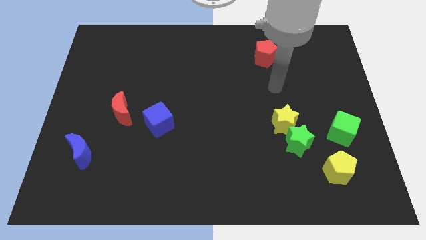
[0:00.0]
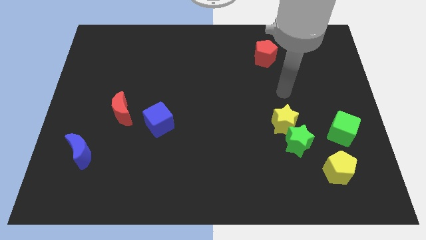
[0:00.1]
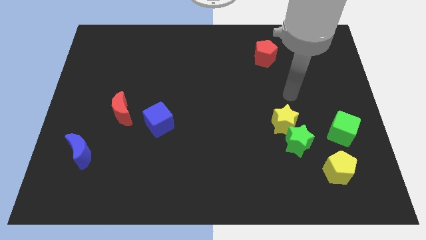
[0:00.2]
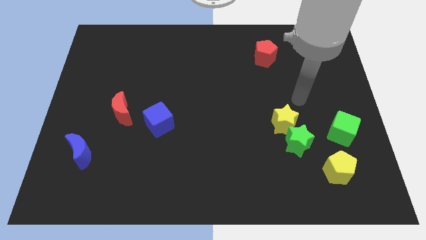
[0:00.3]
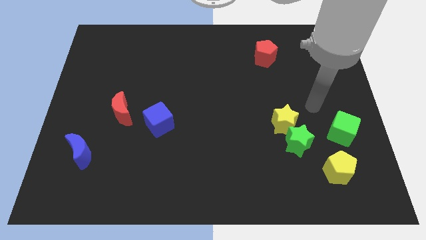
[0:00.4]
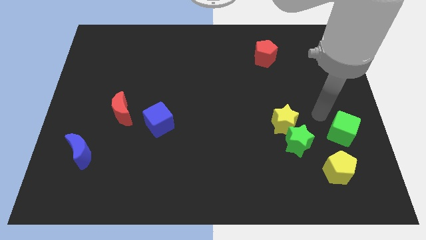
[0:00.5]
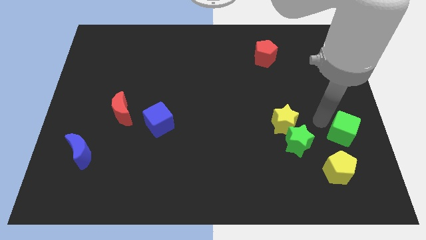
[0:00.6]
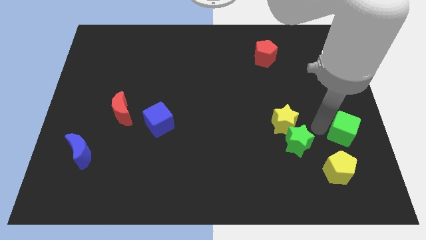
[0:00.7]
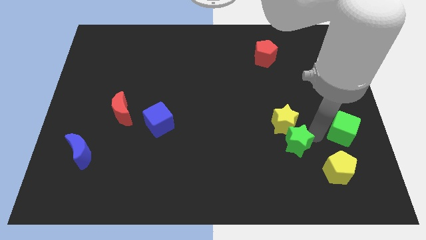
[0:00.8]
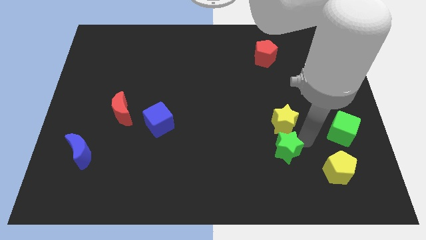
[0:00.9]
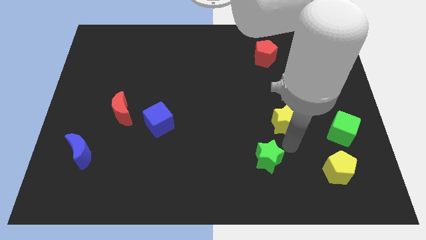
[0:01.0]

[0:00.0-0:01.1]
pull the yellow star apart from the green star

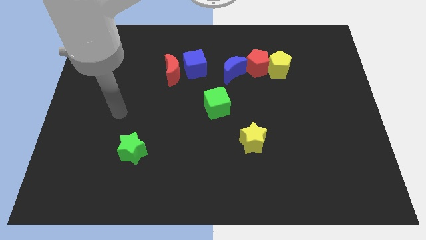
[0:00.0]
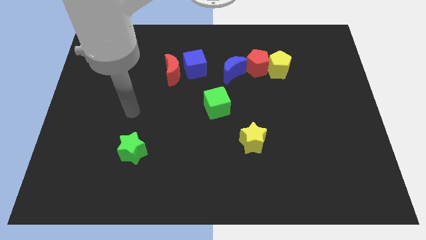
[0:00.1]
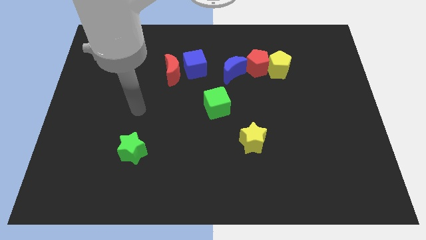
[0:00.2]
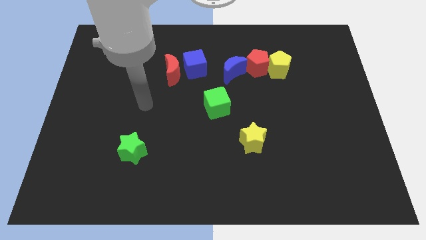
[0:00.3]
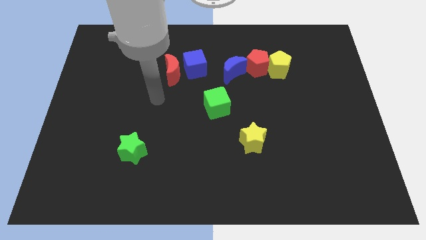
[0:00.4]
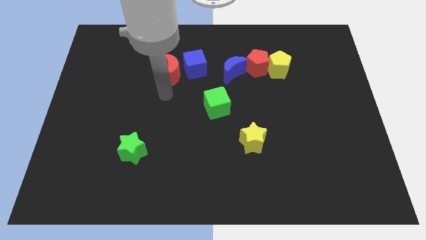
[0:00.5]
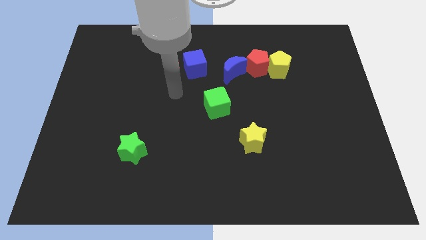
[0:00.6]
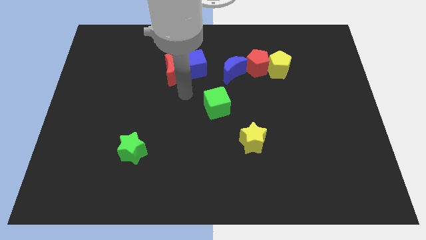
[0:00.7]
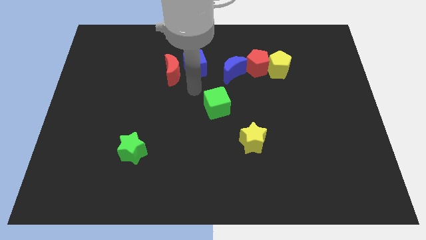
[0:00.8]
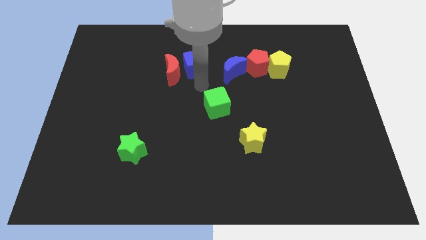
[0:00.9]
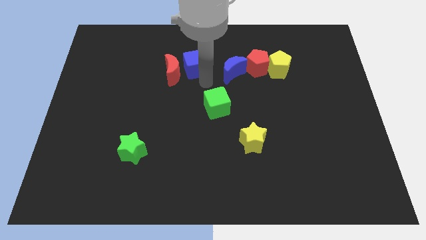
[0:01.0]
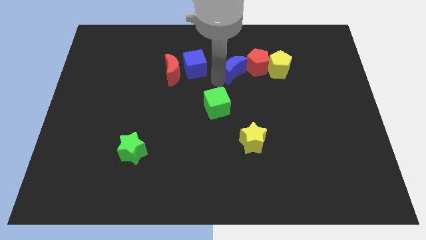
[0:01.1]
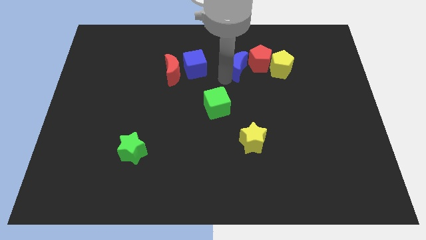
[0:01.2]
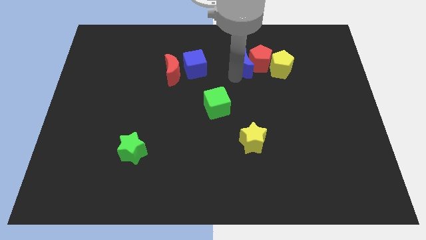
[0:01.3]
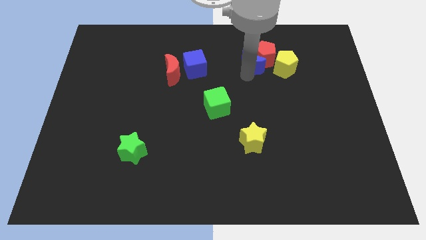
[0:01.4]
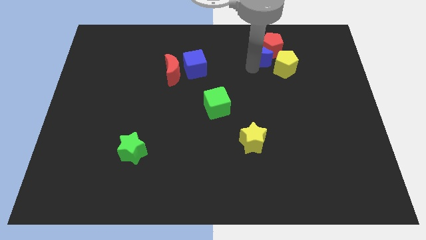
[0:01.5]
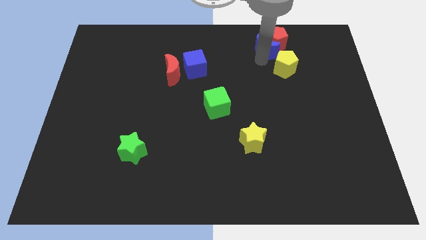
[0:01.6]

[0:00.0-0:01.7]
move the yellow pentagon away from the red pentagon

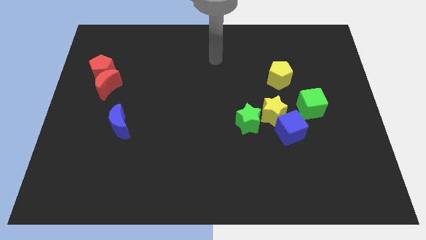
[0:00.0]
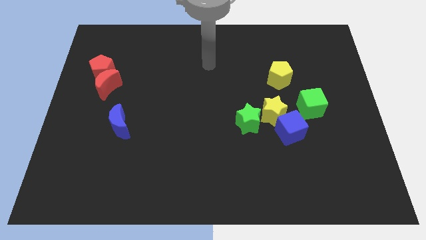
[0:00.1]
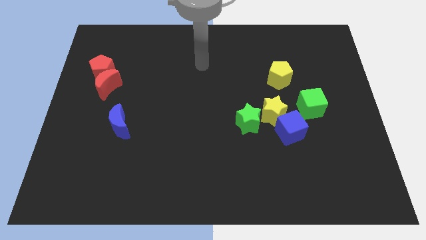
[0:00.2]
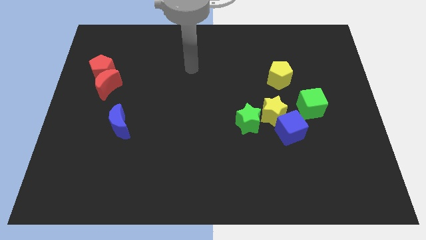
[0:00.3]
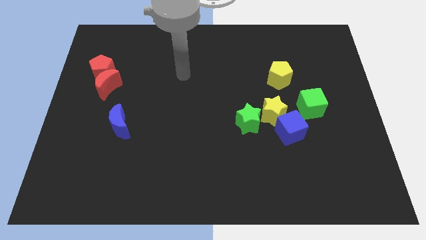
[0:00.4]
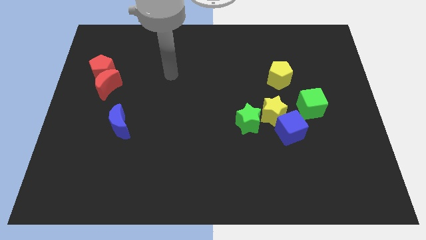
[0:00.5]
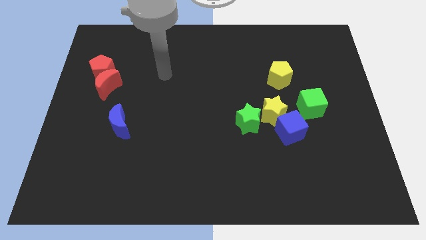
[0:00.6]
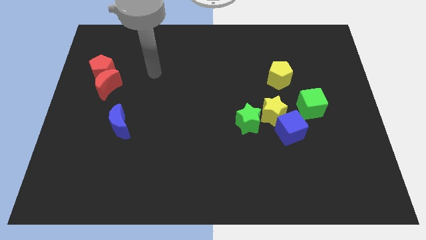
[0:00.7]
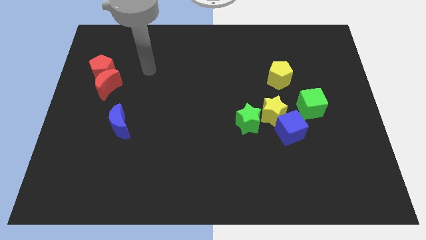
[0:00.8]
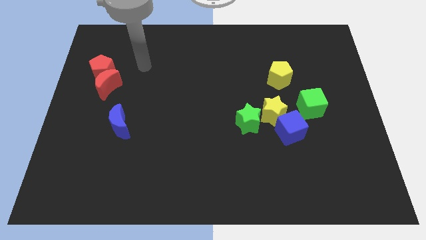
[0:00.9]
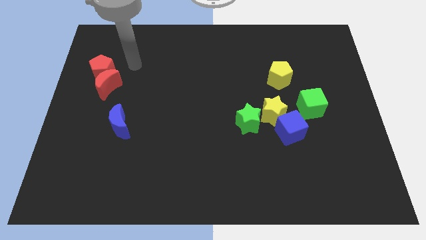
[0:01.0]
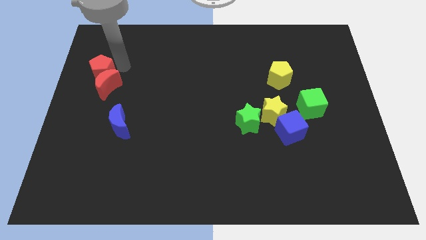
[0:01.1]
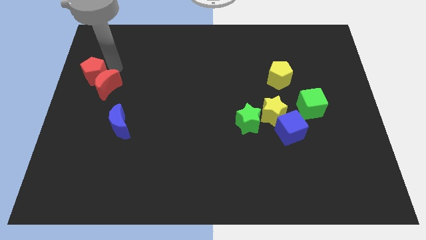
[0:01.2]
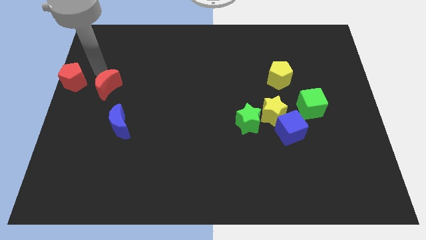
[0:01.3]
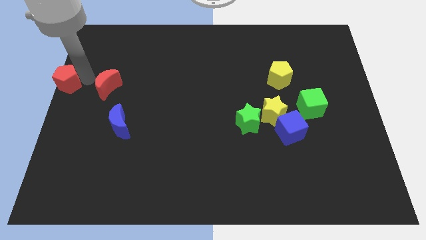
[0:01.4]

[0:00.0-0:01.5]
move the red moon away from the red pentagon

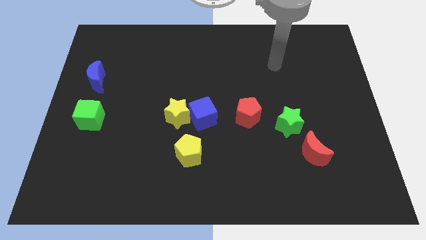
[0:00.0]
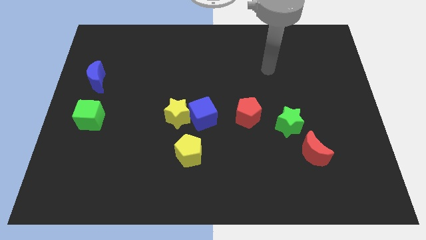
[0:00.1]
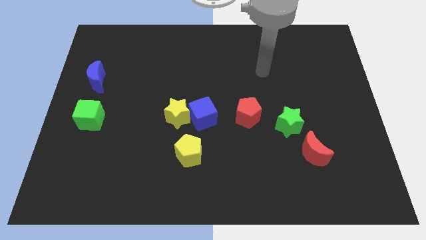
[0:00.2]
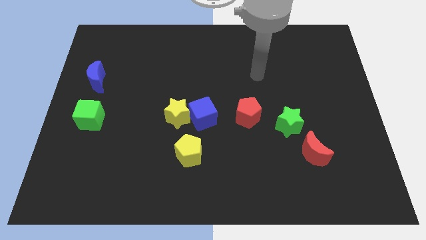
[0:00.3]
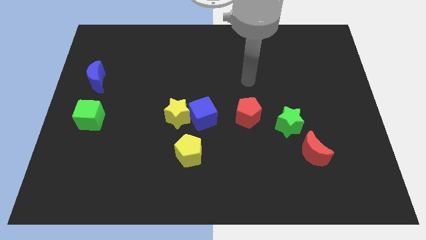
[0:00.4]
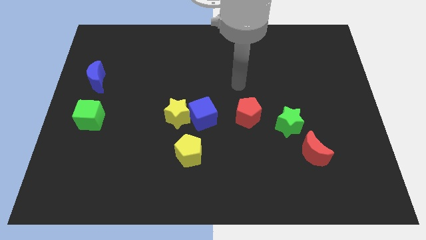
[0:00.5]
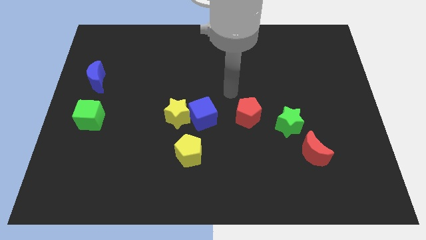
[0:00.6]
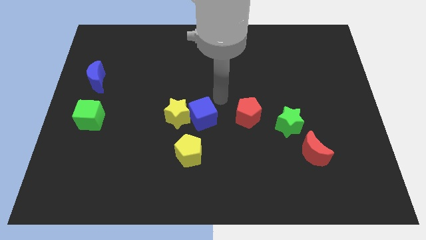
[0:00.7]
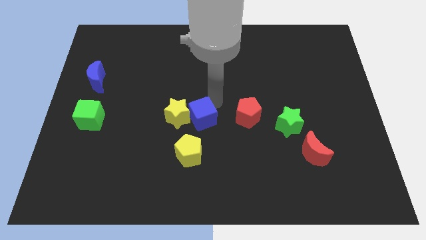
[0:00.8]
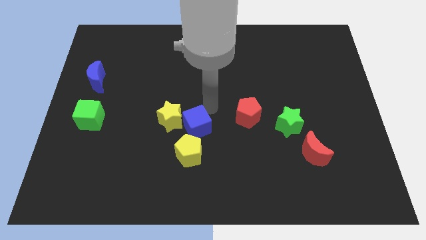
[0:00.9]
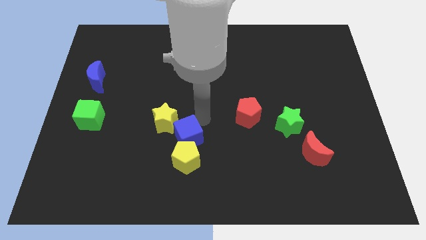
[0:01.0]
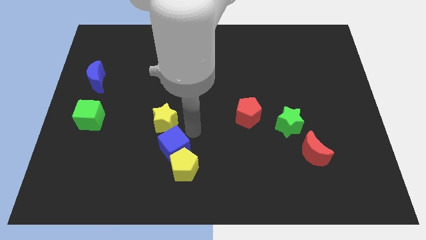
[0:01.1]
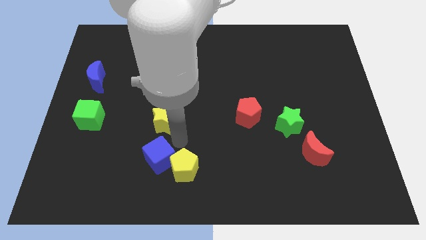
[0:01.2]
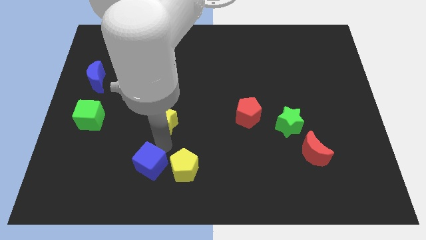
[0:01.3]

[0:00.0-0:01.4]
move the yellow star away from the blue cube

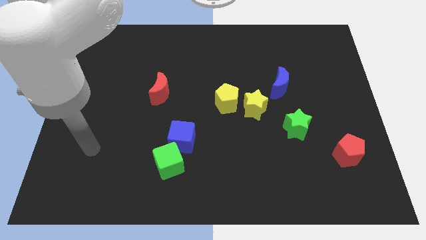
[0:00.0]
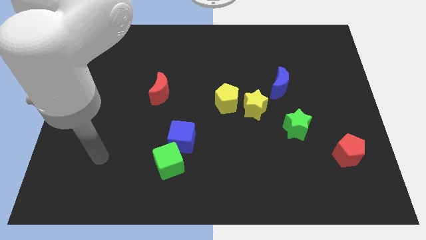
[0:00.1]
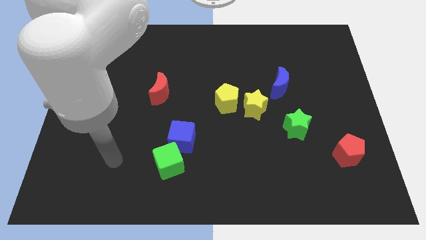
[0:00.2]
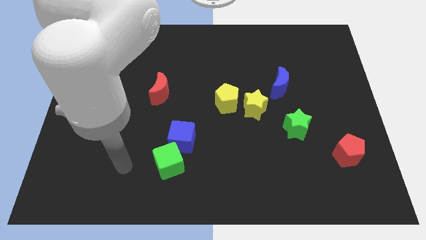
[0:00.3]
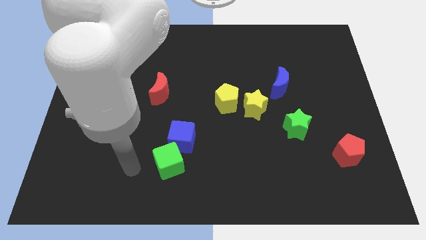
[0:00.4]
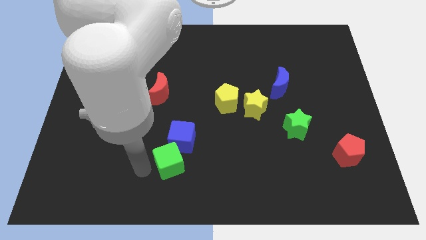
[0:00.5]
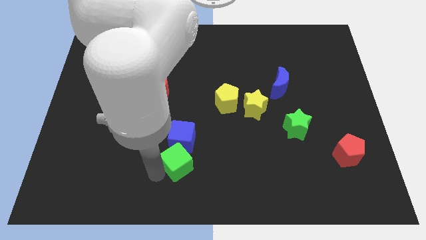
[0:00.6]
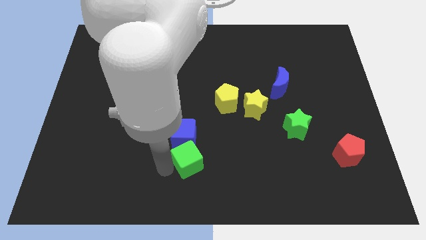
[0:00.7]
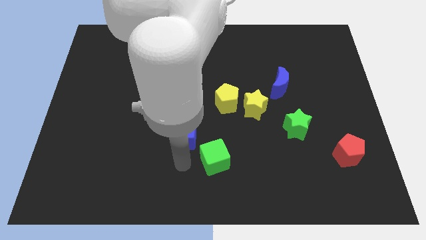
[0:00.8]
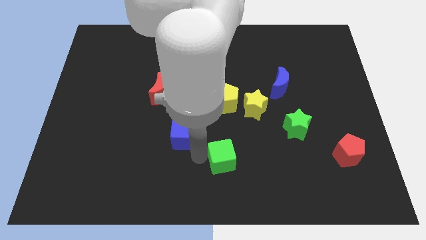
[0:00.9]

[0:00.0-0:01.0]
separate the blue cube from the green cube

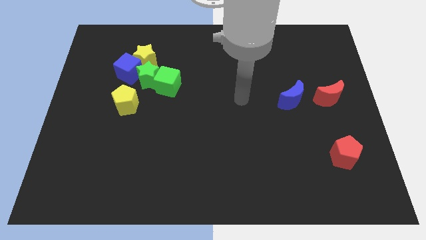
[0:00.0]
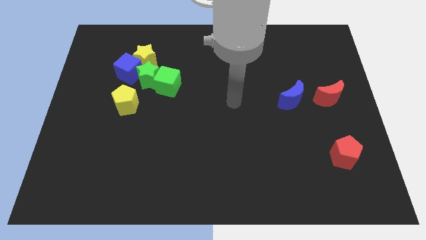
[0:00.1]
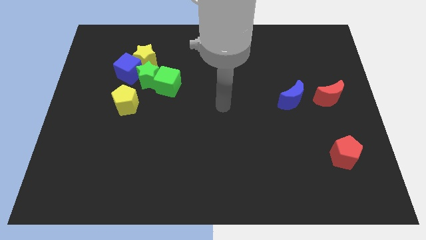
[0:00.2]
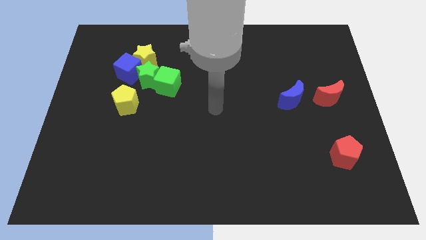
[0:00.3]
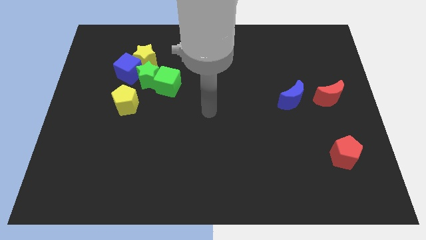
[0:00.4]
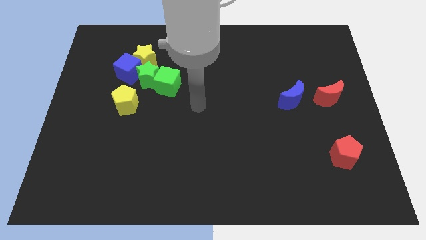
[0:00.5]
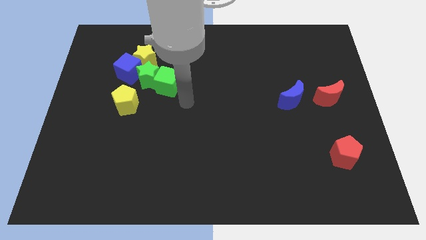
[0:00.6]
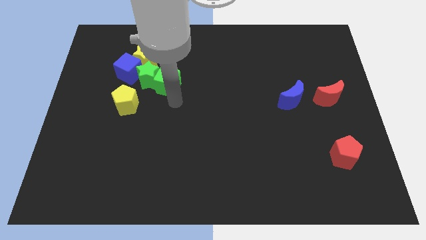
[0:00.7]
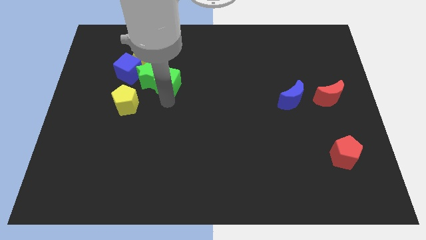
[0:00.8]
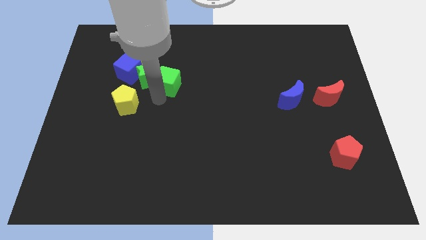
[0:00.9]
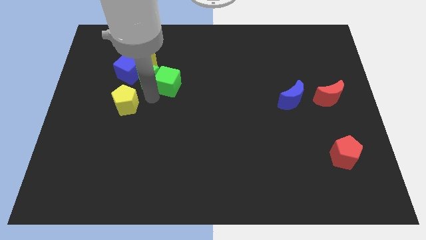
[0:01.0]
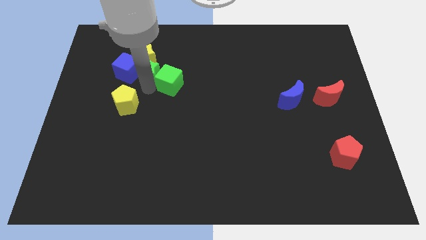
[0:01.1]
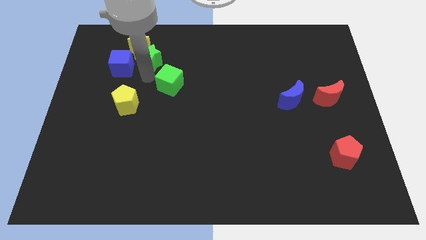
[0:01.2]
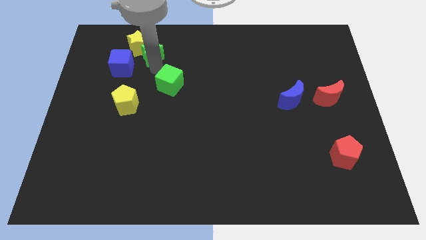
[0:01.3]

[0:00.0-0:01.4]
separate the green cube from the green star

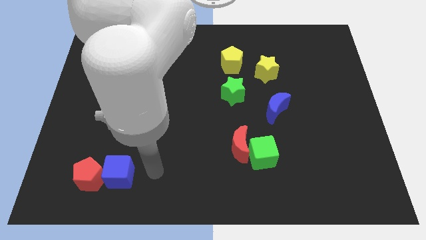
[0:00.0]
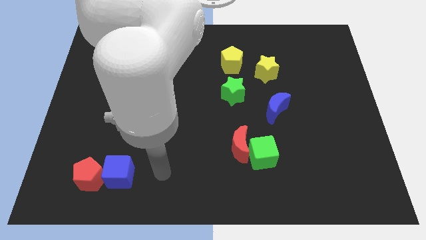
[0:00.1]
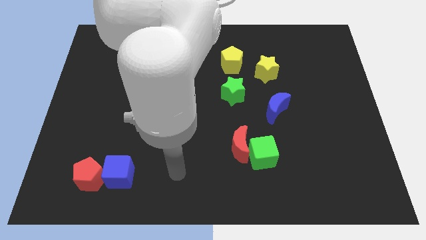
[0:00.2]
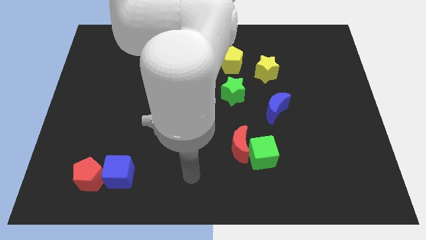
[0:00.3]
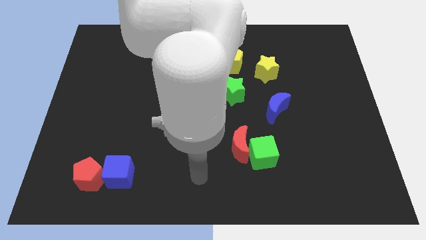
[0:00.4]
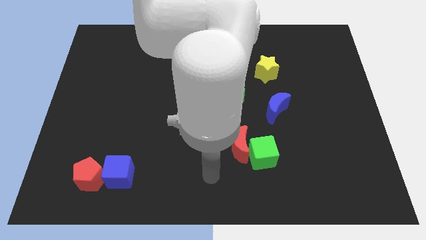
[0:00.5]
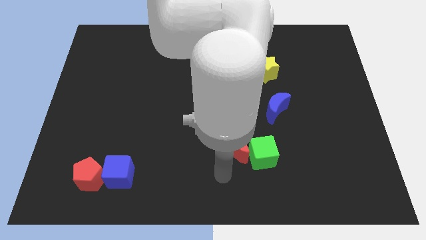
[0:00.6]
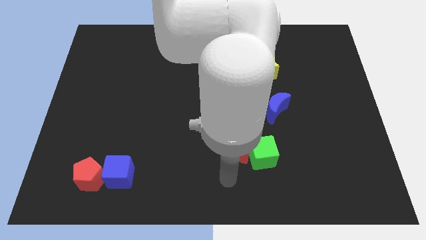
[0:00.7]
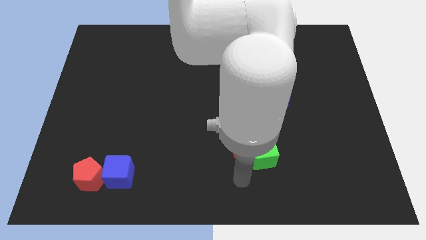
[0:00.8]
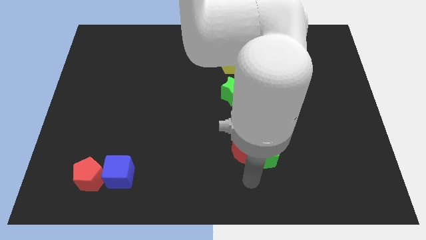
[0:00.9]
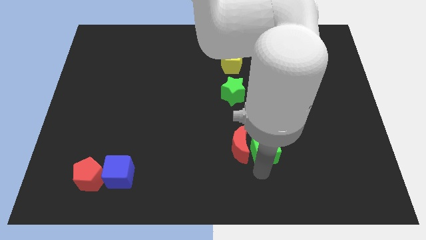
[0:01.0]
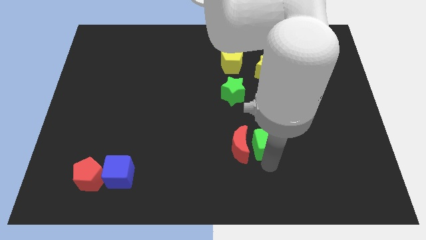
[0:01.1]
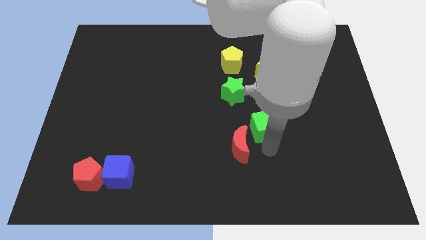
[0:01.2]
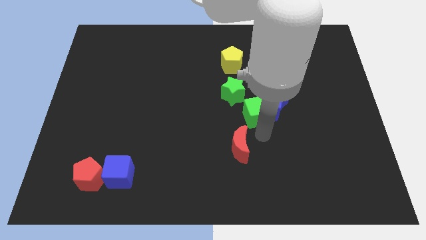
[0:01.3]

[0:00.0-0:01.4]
separate the red moon from the green cube
